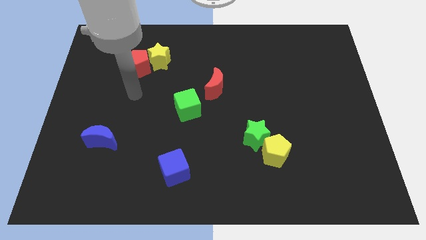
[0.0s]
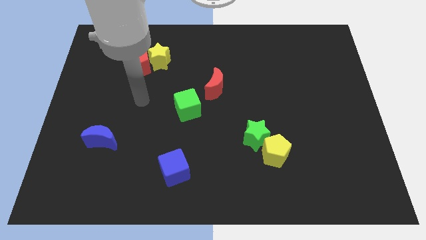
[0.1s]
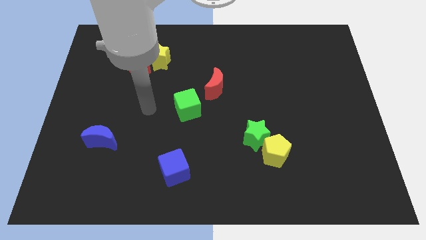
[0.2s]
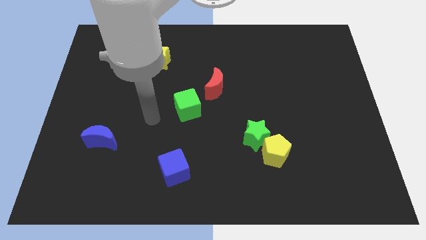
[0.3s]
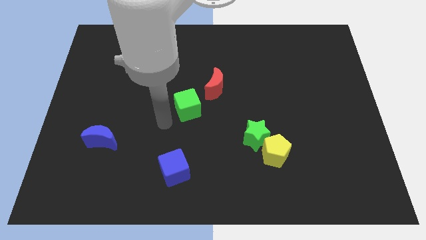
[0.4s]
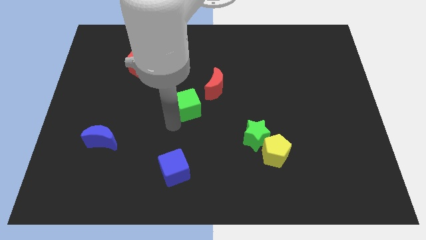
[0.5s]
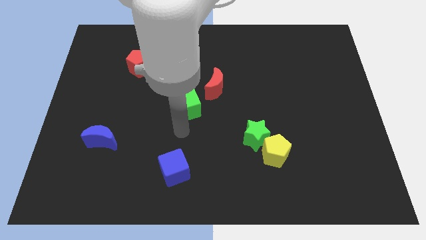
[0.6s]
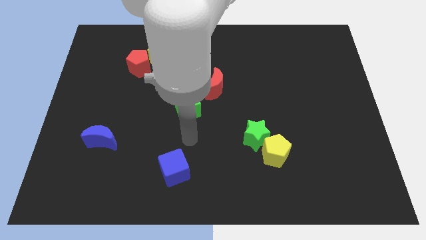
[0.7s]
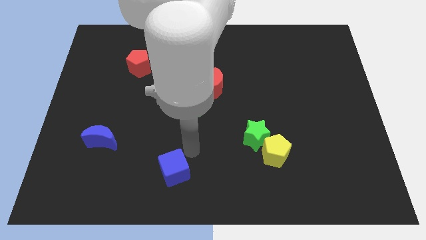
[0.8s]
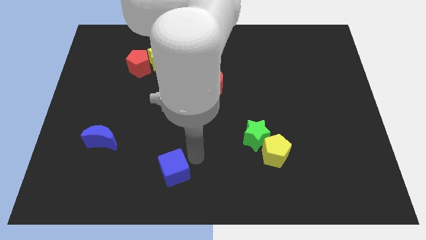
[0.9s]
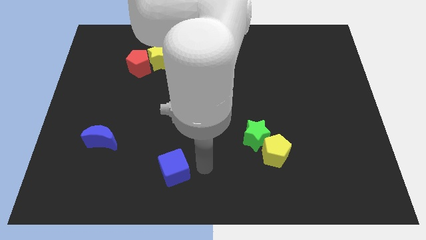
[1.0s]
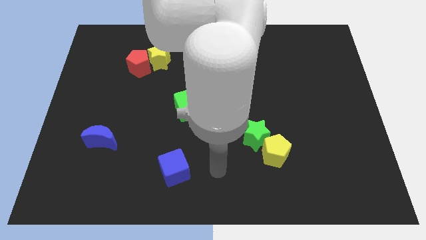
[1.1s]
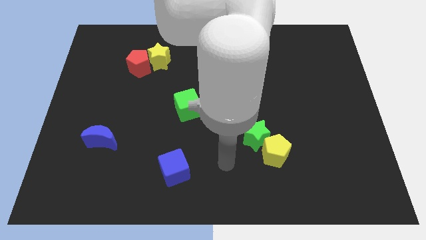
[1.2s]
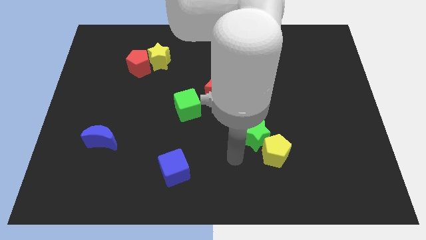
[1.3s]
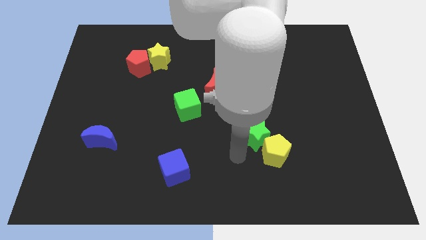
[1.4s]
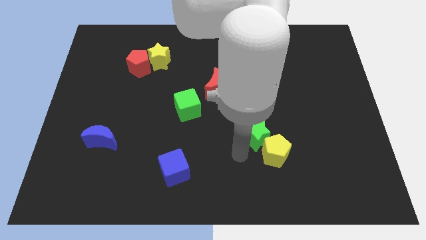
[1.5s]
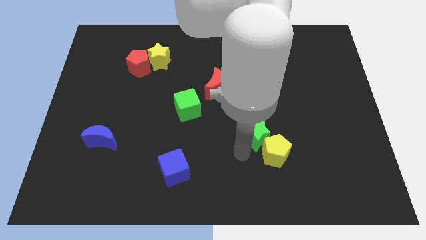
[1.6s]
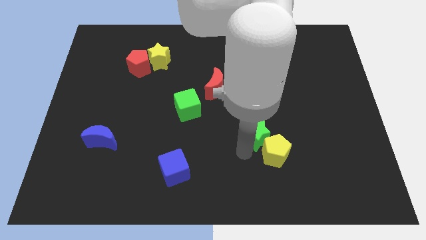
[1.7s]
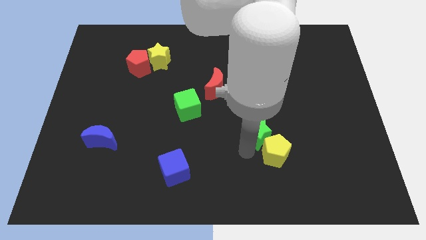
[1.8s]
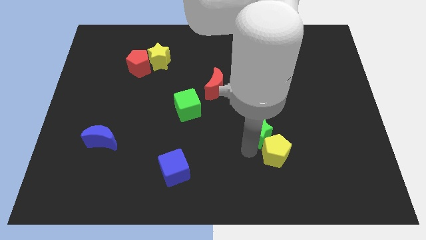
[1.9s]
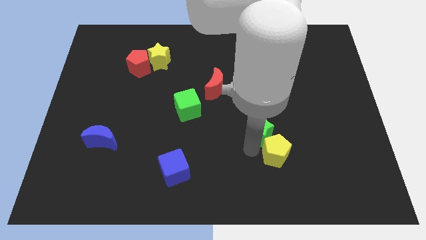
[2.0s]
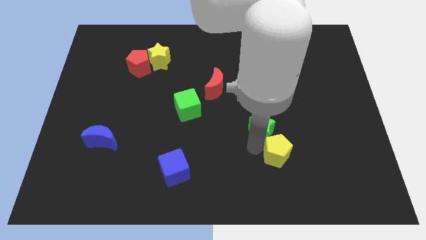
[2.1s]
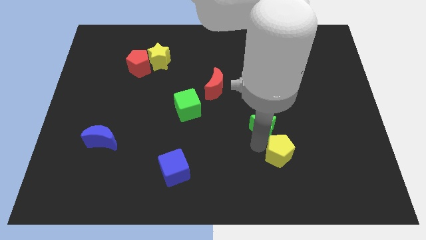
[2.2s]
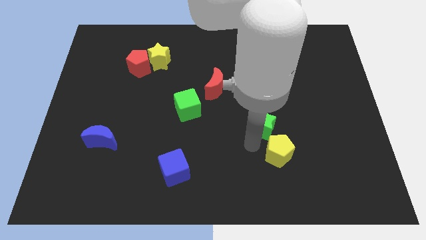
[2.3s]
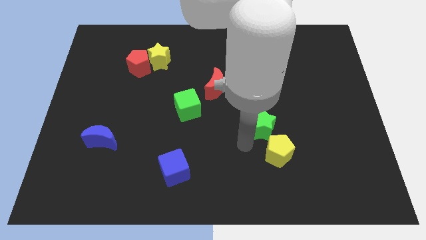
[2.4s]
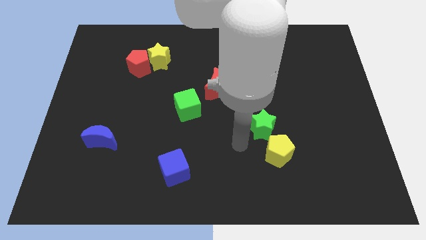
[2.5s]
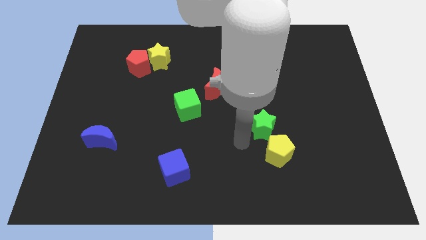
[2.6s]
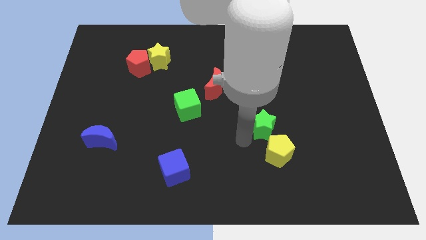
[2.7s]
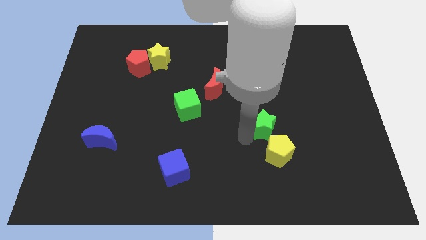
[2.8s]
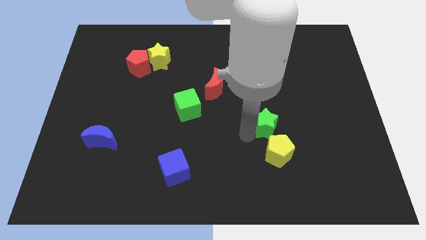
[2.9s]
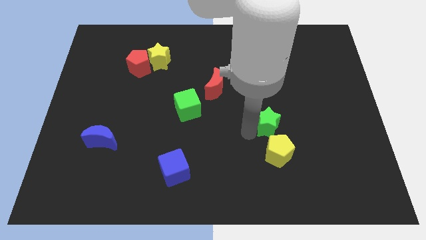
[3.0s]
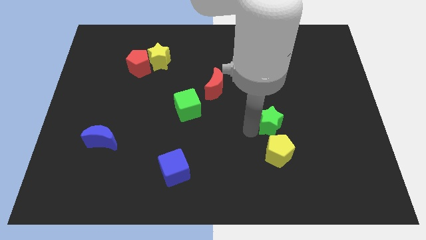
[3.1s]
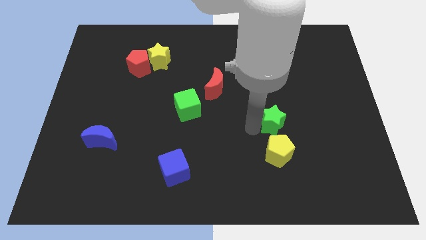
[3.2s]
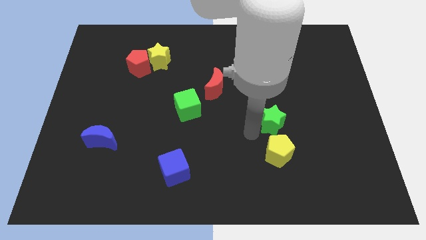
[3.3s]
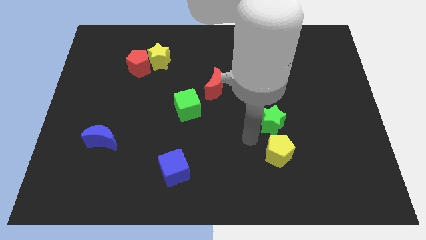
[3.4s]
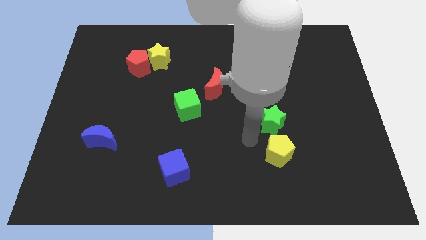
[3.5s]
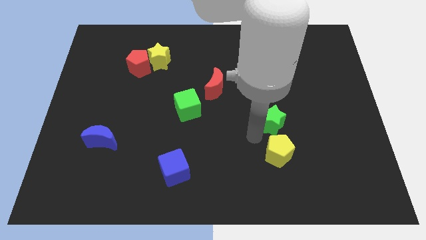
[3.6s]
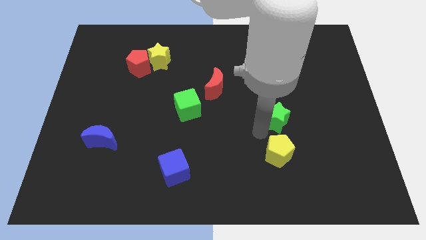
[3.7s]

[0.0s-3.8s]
move the green star up and then to the right somewhat

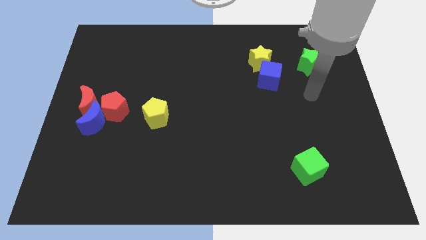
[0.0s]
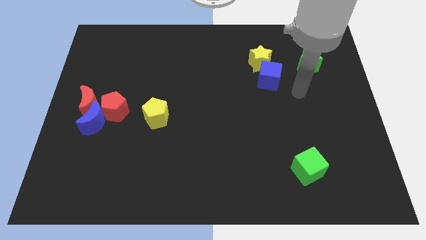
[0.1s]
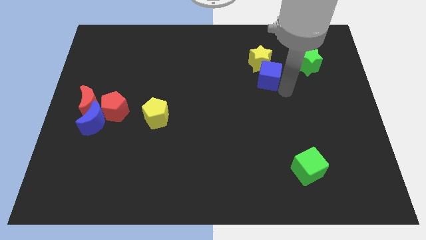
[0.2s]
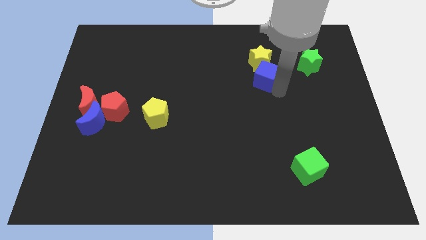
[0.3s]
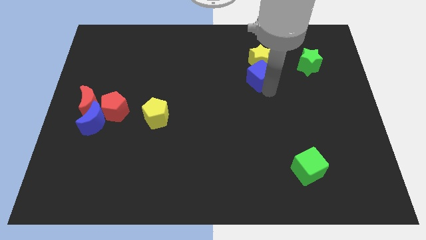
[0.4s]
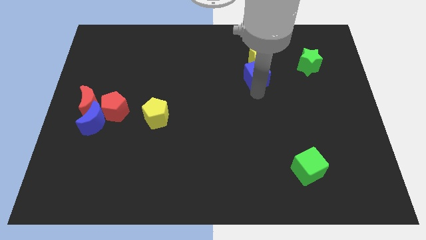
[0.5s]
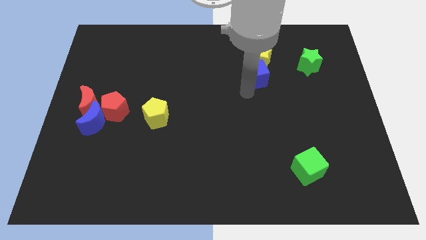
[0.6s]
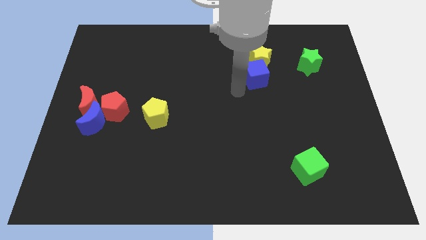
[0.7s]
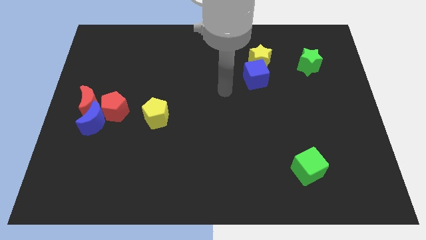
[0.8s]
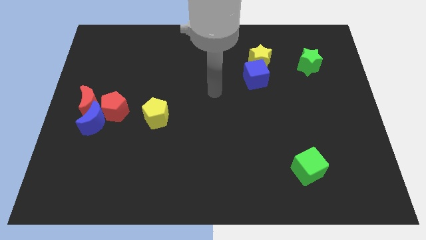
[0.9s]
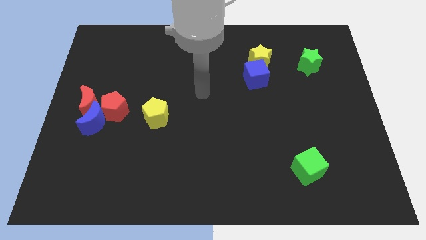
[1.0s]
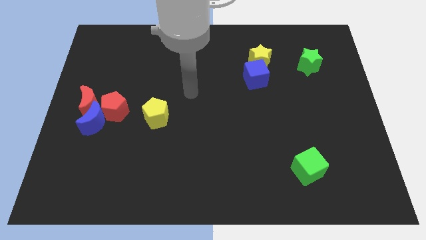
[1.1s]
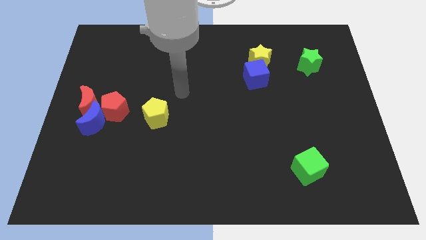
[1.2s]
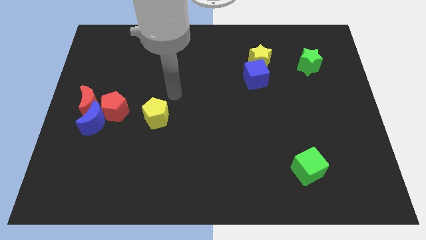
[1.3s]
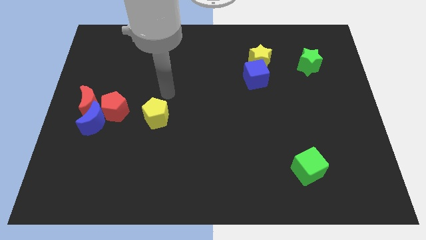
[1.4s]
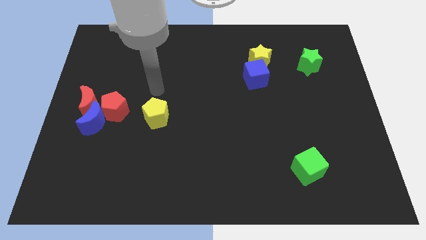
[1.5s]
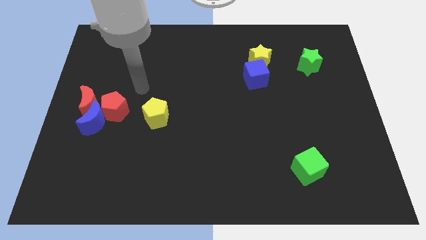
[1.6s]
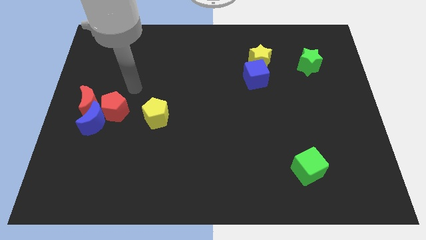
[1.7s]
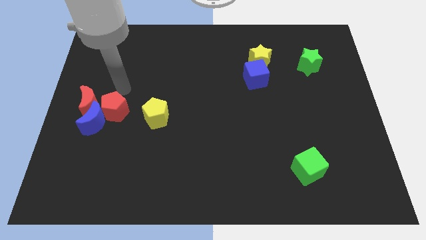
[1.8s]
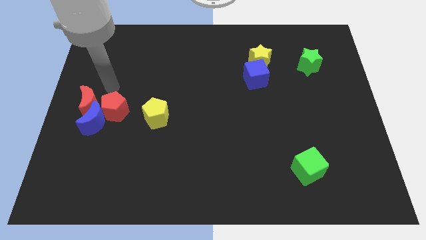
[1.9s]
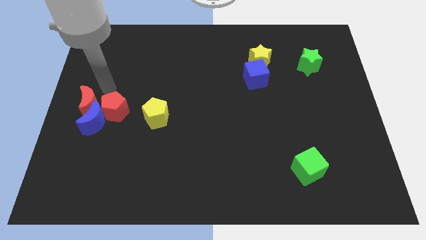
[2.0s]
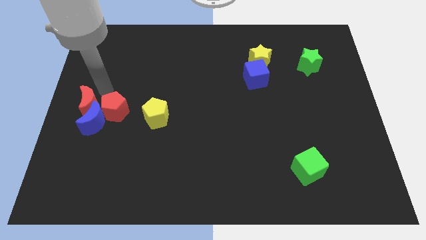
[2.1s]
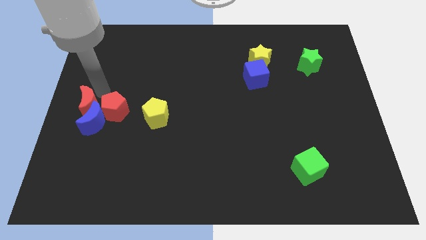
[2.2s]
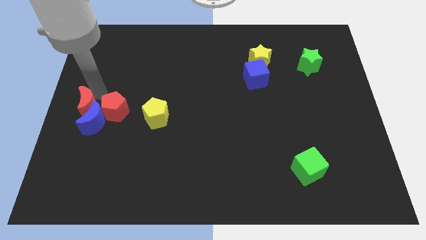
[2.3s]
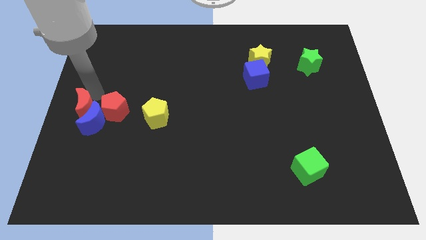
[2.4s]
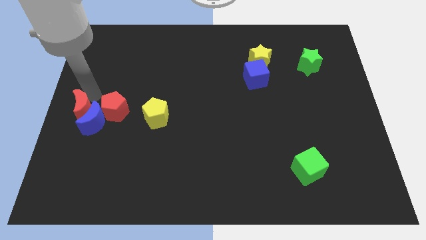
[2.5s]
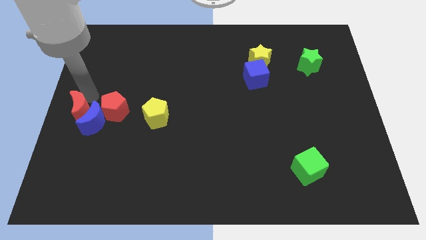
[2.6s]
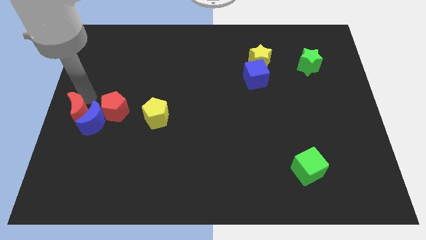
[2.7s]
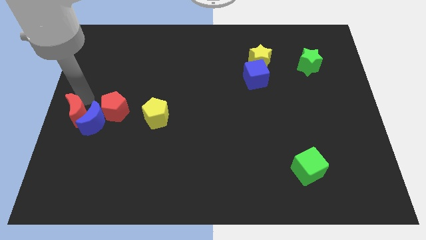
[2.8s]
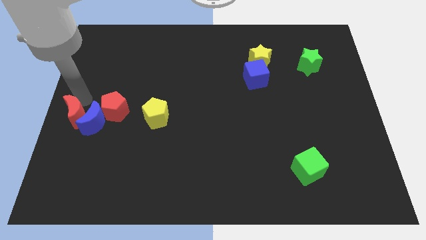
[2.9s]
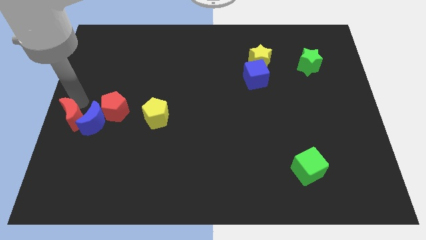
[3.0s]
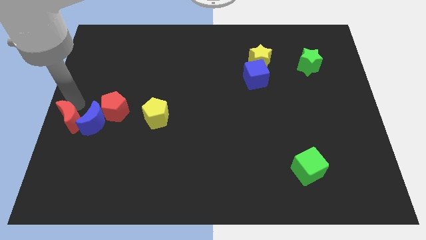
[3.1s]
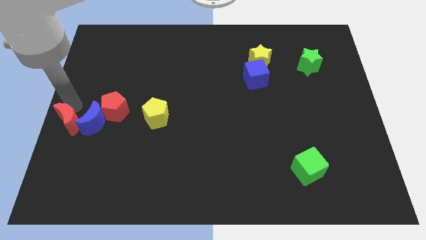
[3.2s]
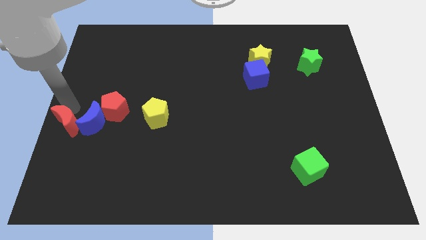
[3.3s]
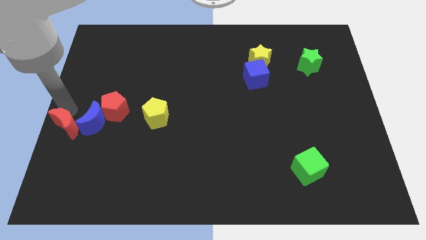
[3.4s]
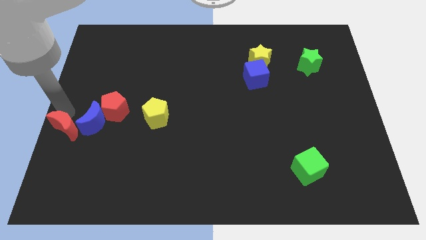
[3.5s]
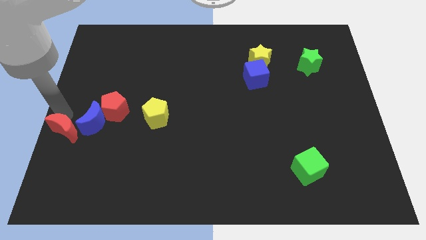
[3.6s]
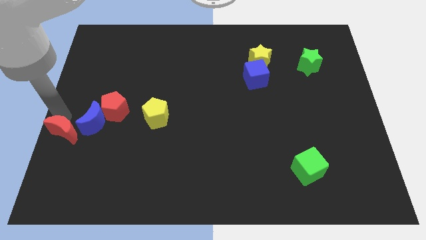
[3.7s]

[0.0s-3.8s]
slightly slide the red moon downwards

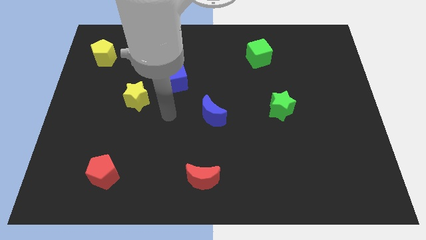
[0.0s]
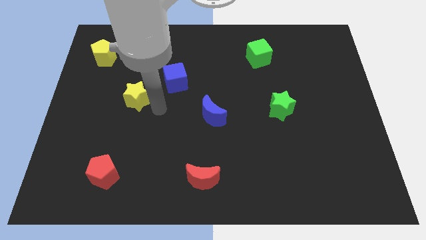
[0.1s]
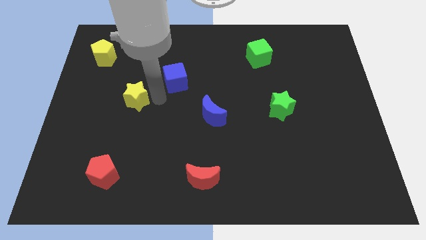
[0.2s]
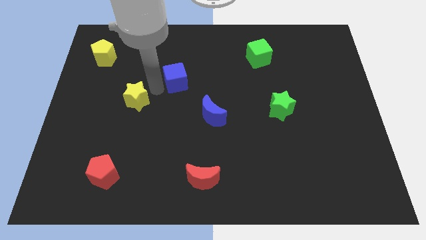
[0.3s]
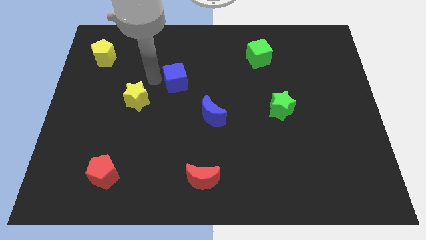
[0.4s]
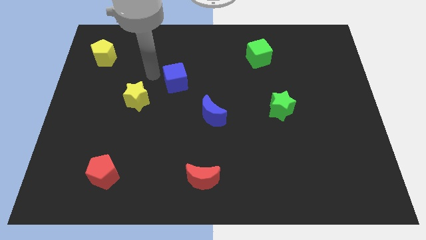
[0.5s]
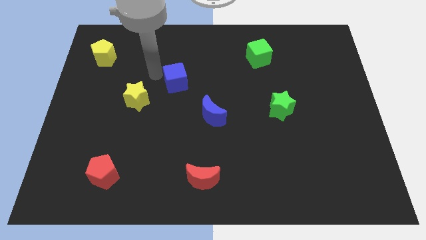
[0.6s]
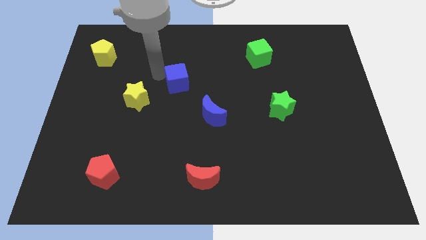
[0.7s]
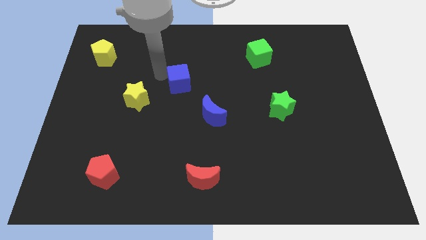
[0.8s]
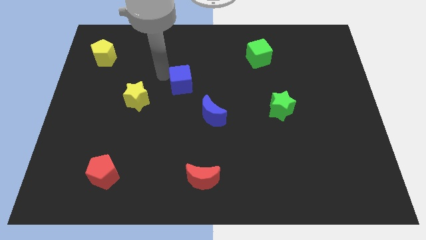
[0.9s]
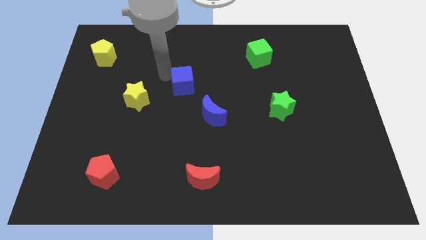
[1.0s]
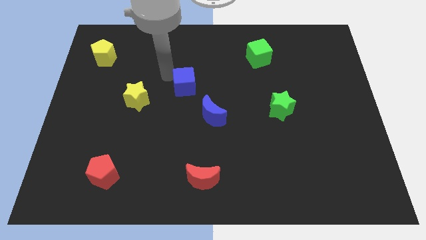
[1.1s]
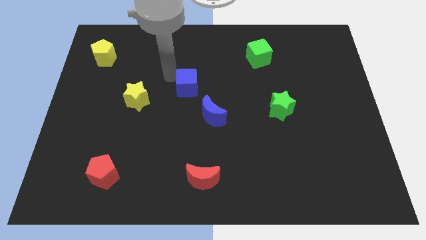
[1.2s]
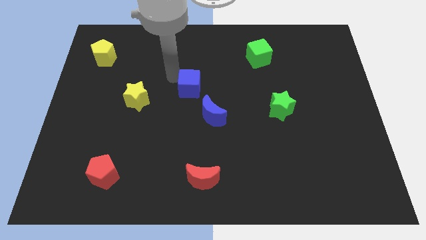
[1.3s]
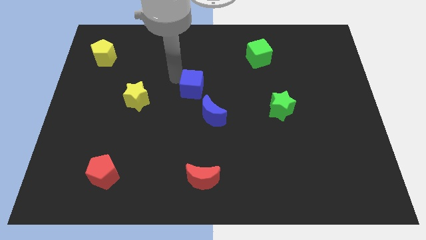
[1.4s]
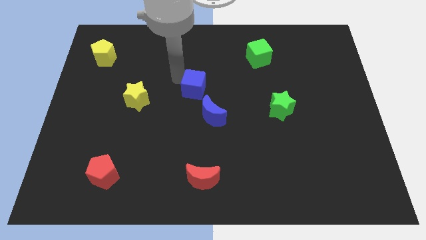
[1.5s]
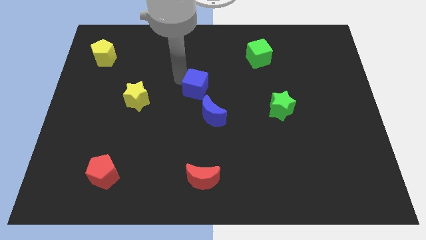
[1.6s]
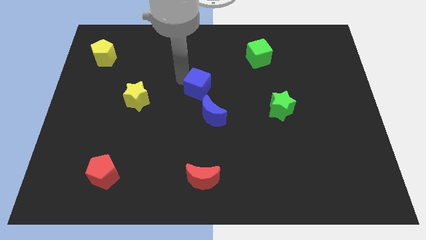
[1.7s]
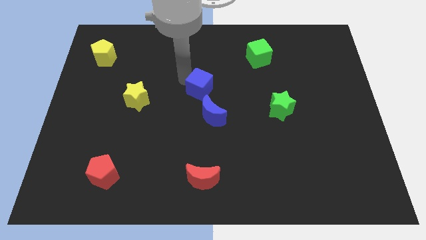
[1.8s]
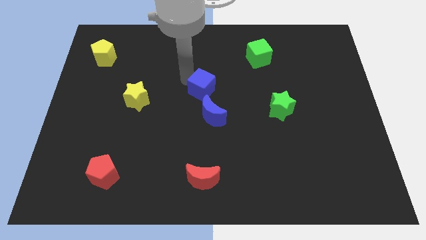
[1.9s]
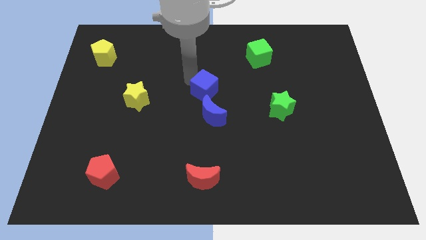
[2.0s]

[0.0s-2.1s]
push the blue cube downwards and right a little bit
